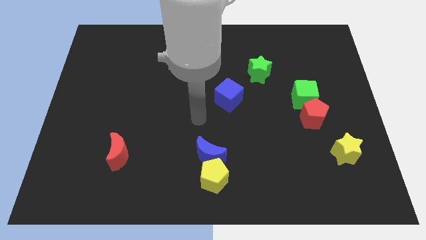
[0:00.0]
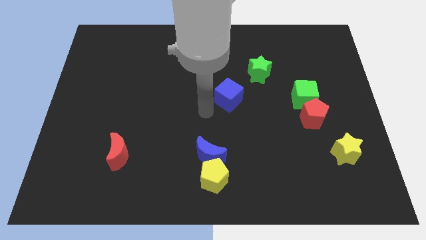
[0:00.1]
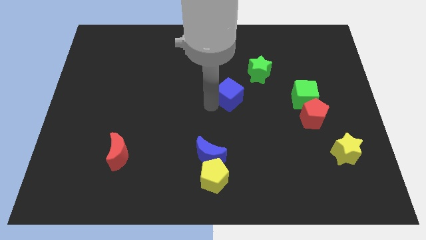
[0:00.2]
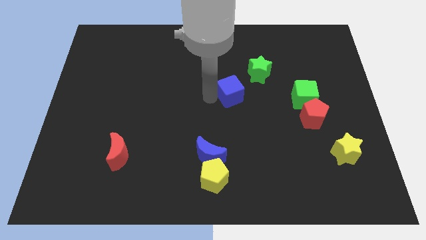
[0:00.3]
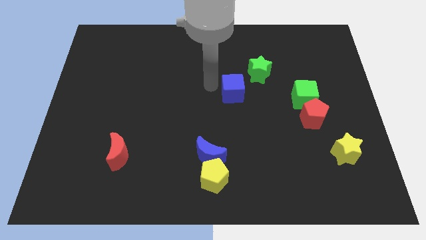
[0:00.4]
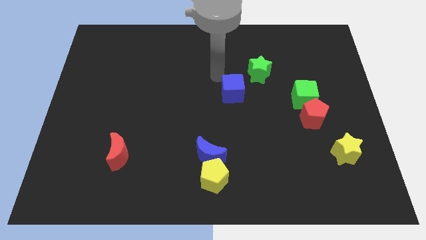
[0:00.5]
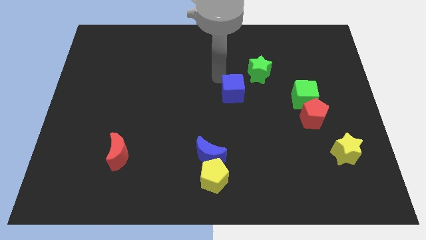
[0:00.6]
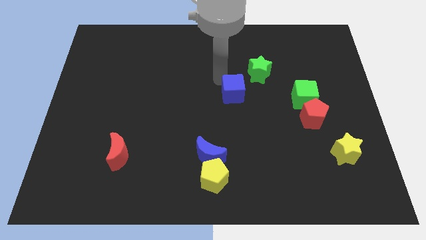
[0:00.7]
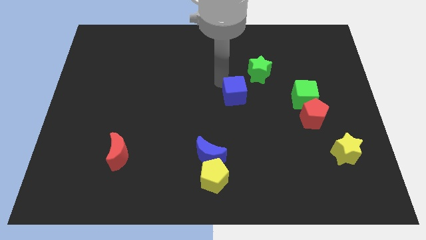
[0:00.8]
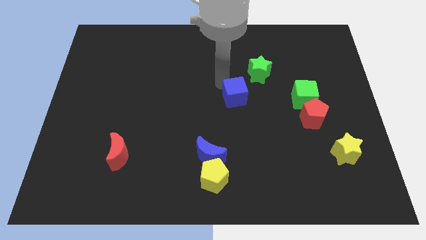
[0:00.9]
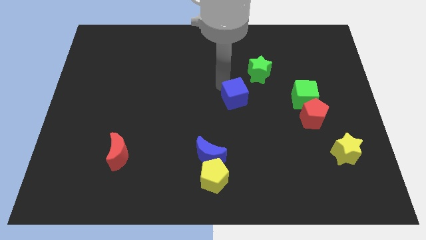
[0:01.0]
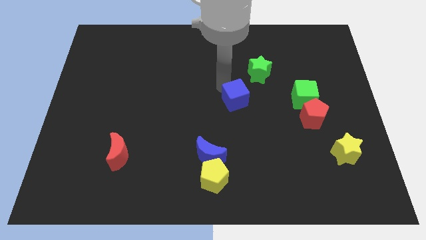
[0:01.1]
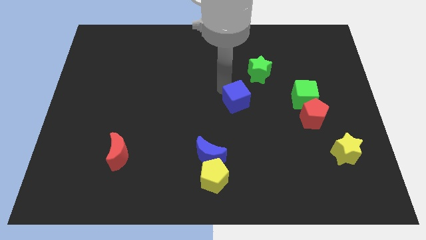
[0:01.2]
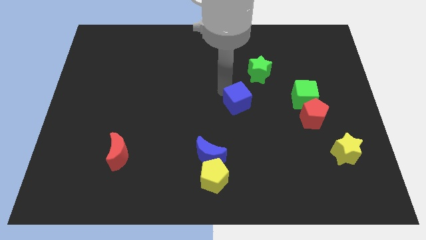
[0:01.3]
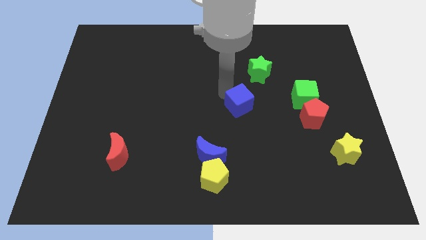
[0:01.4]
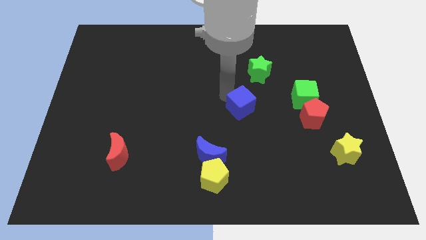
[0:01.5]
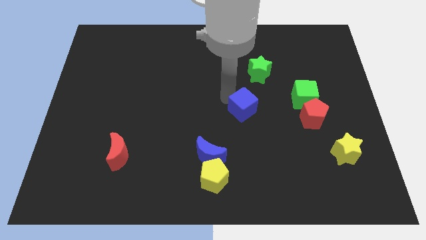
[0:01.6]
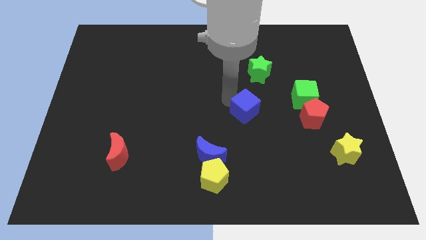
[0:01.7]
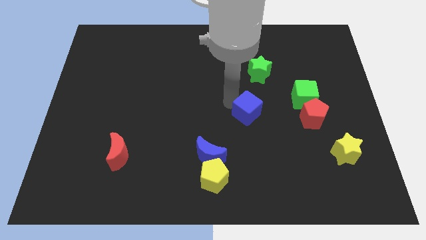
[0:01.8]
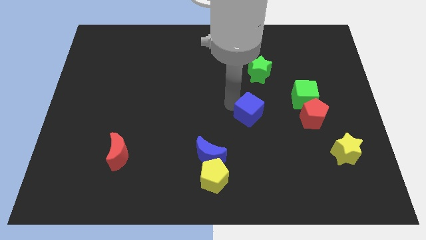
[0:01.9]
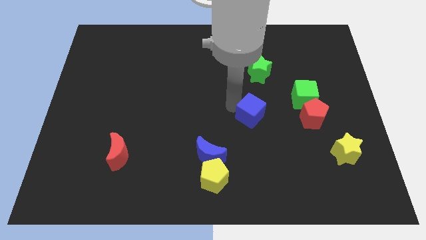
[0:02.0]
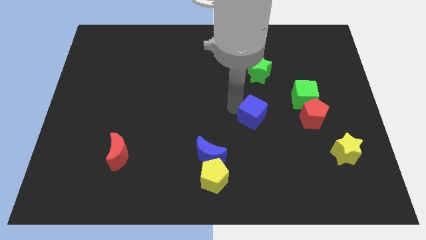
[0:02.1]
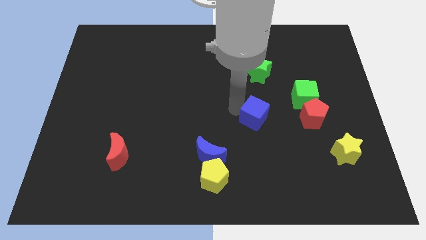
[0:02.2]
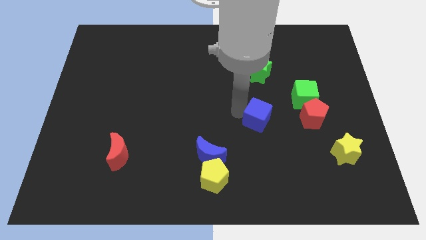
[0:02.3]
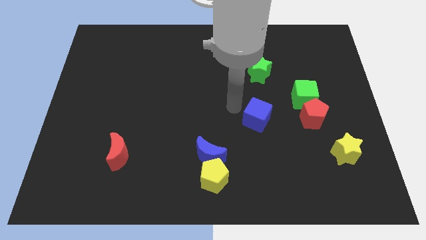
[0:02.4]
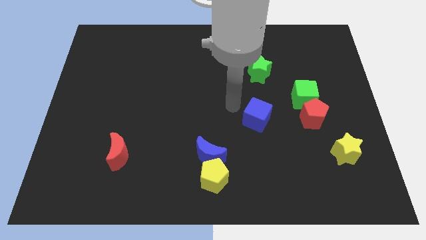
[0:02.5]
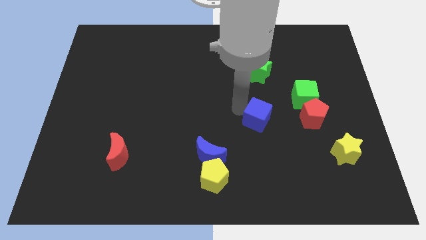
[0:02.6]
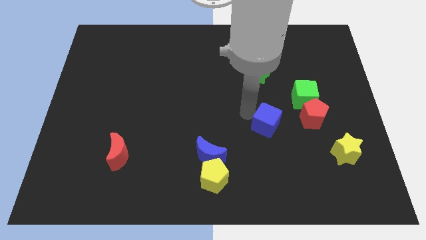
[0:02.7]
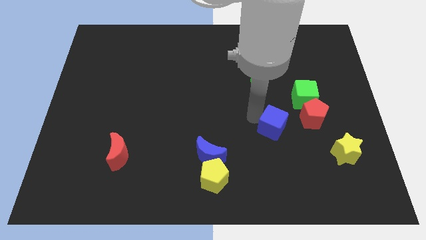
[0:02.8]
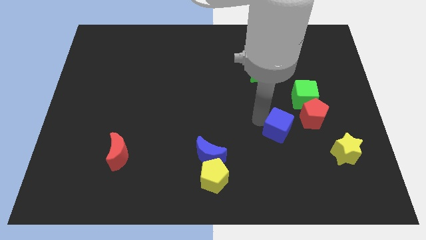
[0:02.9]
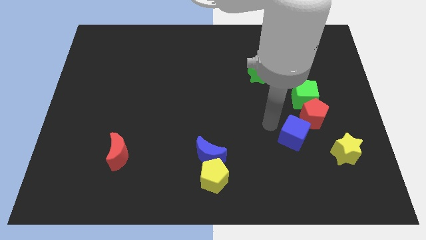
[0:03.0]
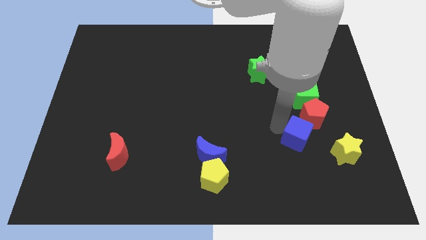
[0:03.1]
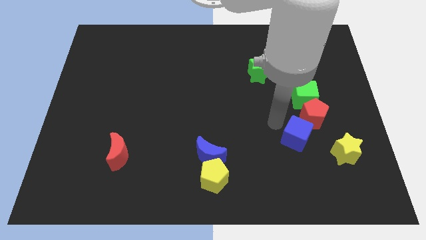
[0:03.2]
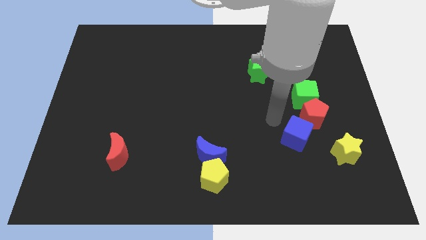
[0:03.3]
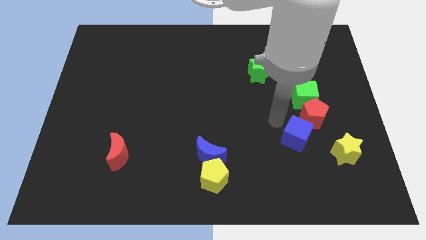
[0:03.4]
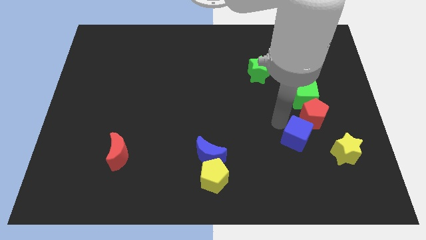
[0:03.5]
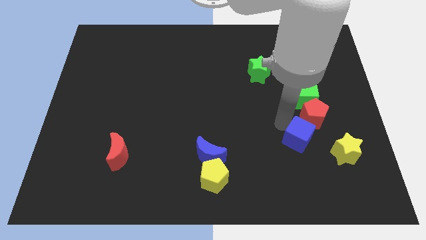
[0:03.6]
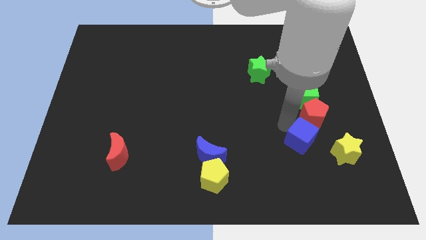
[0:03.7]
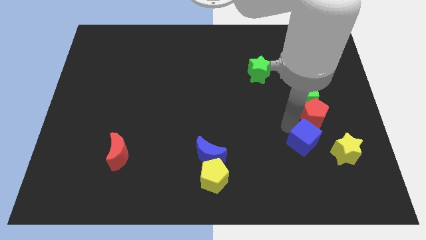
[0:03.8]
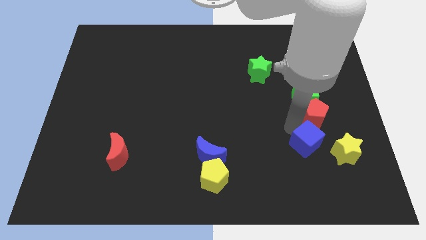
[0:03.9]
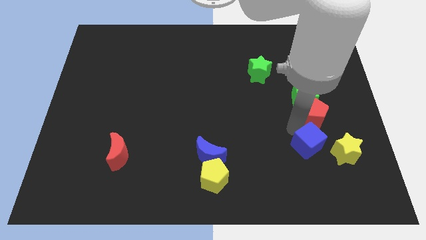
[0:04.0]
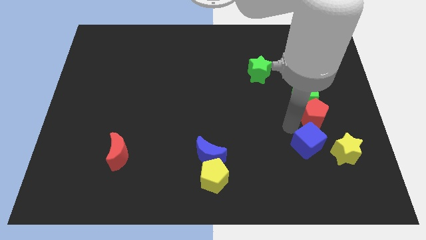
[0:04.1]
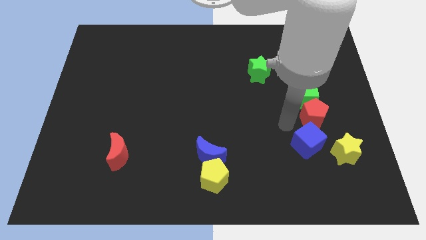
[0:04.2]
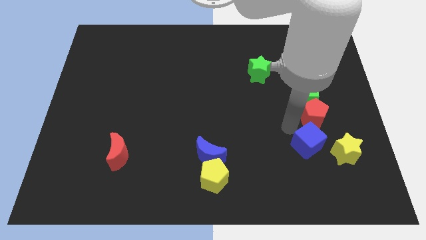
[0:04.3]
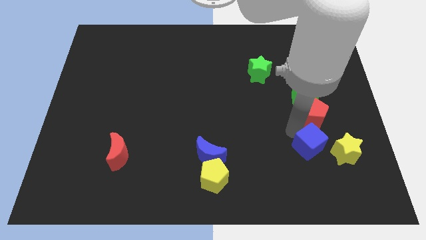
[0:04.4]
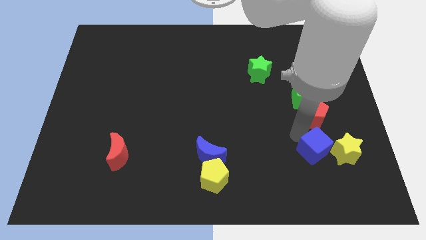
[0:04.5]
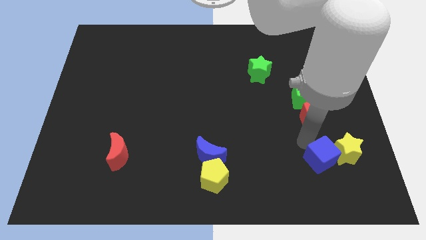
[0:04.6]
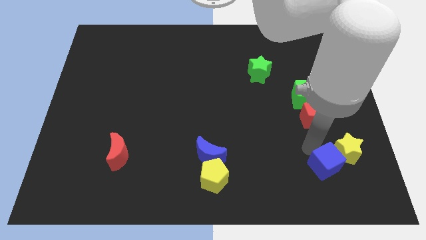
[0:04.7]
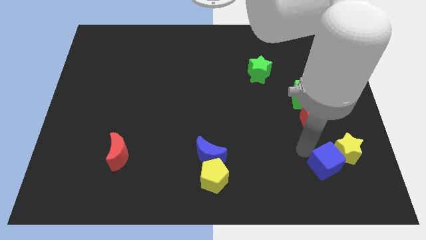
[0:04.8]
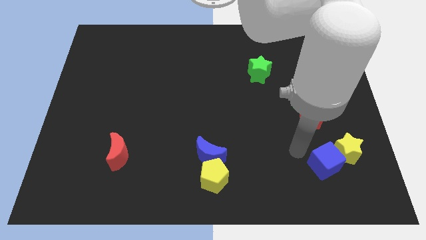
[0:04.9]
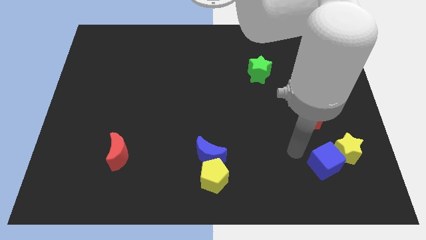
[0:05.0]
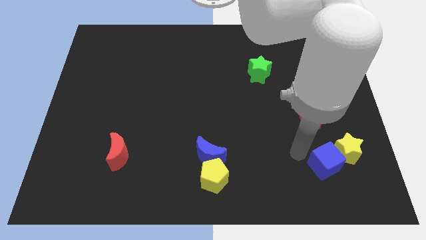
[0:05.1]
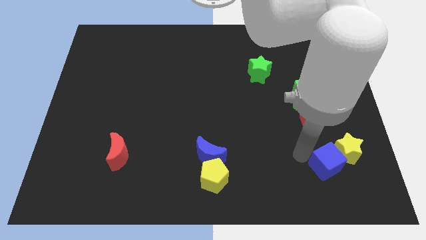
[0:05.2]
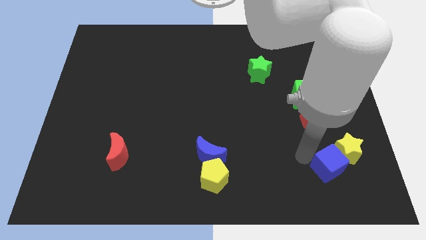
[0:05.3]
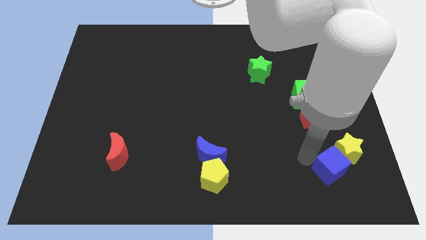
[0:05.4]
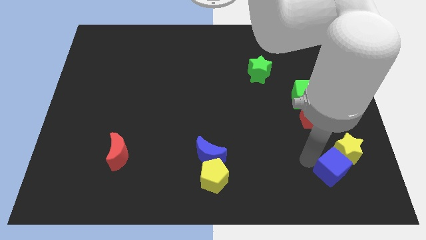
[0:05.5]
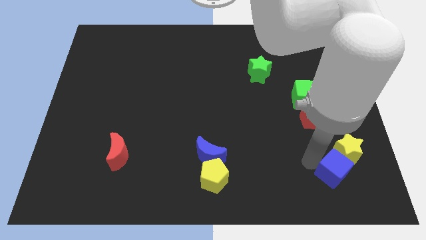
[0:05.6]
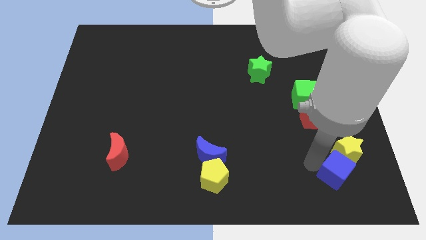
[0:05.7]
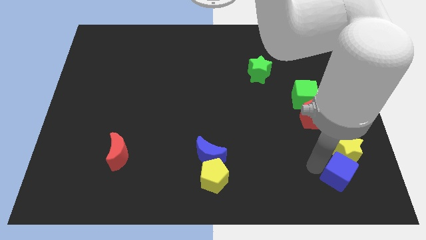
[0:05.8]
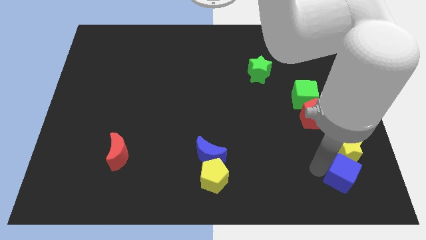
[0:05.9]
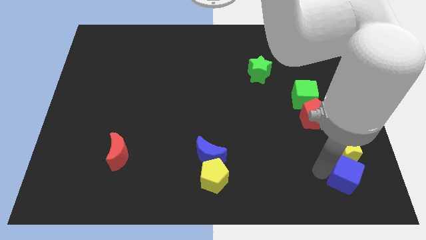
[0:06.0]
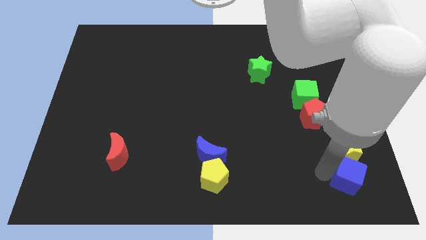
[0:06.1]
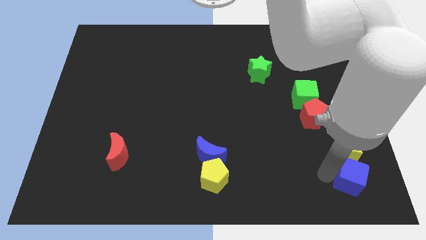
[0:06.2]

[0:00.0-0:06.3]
move the blue cube to the bottom right of the board

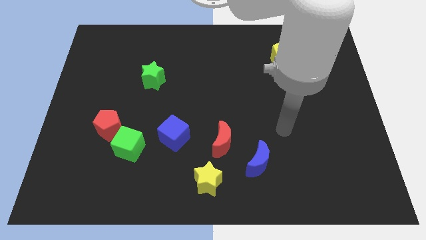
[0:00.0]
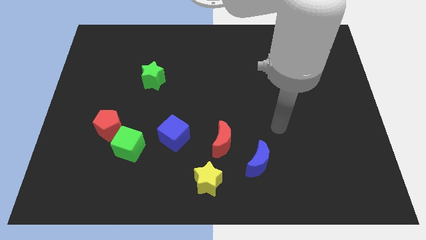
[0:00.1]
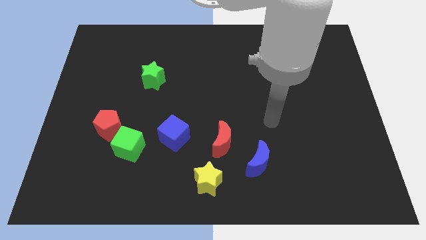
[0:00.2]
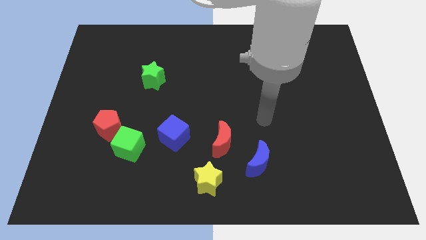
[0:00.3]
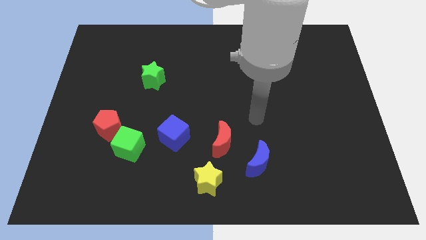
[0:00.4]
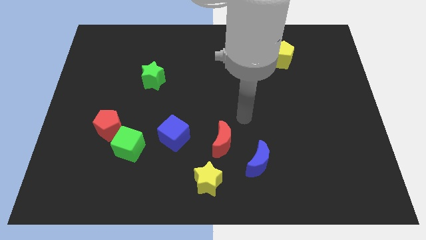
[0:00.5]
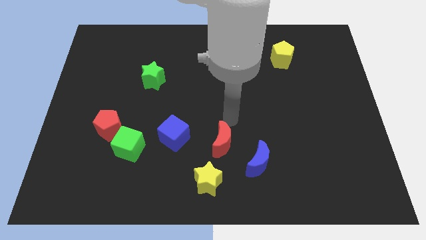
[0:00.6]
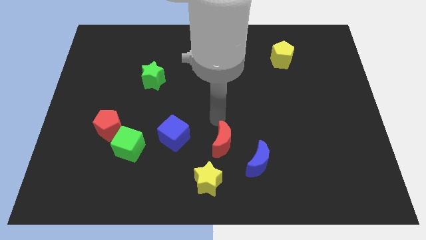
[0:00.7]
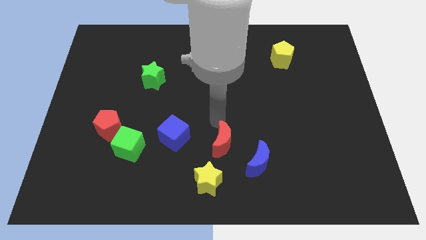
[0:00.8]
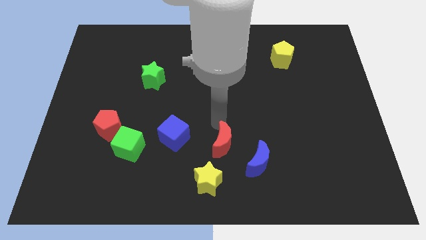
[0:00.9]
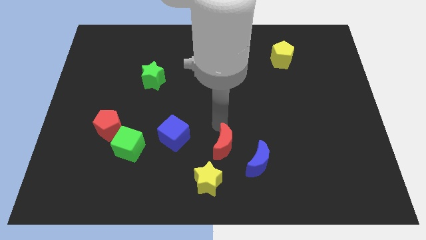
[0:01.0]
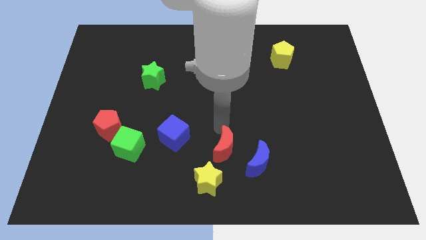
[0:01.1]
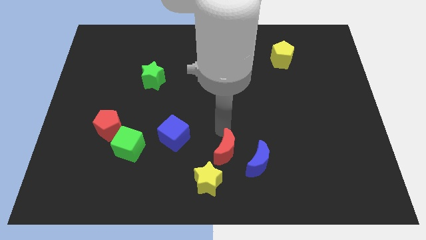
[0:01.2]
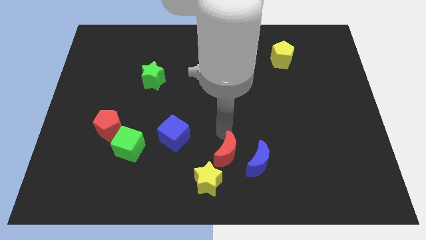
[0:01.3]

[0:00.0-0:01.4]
put the red moon to the bottom side
